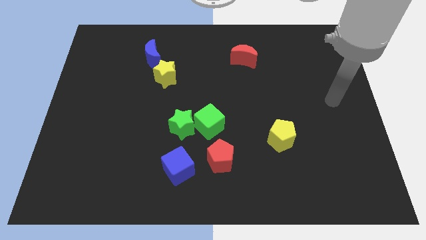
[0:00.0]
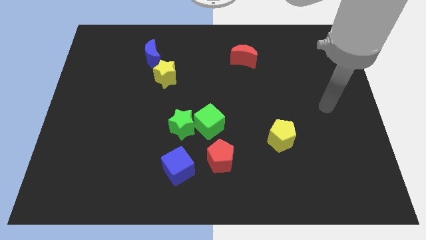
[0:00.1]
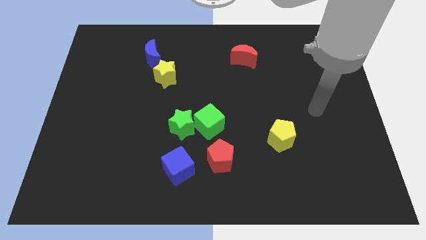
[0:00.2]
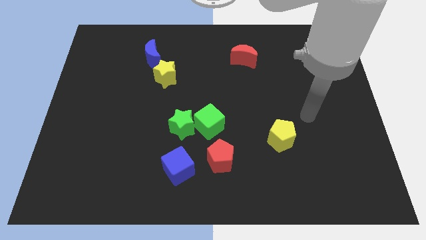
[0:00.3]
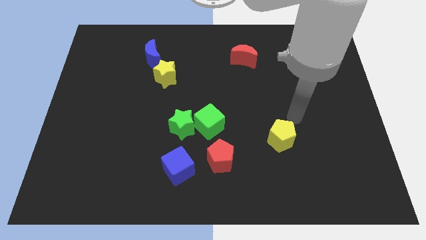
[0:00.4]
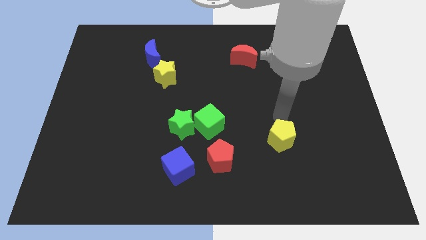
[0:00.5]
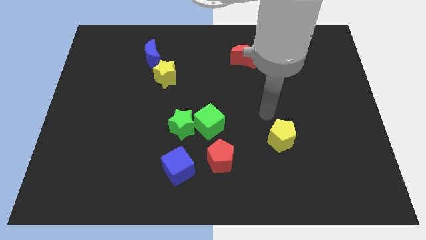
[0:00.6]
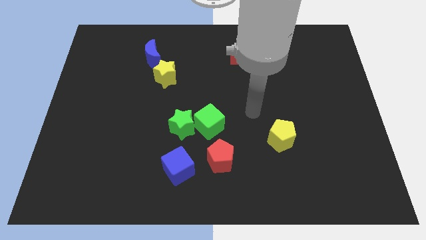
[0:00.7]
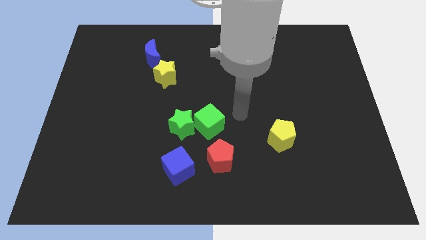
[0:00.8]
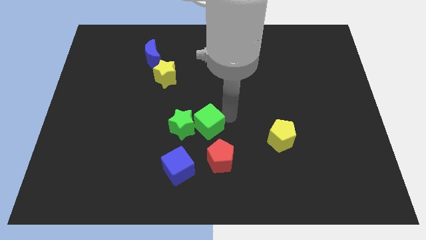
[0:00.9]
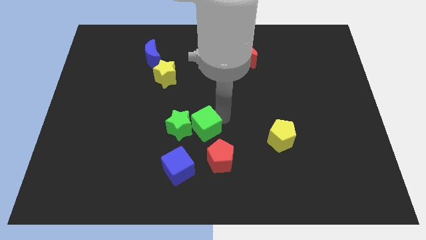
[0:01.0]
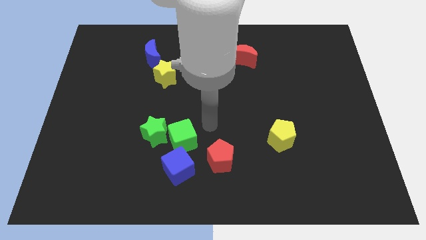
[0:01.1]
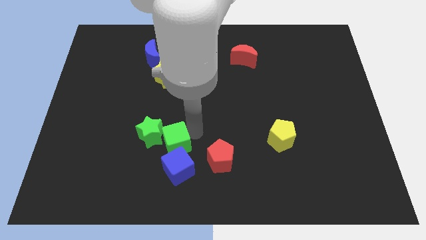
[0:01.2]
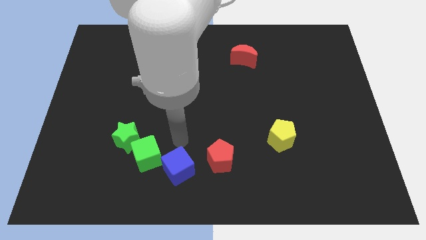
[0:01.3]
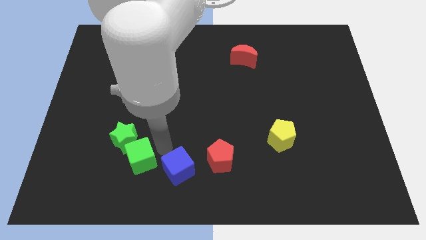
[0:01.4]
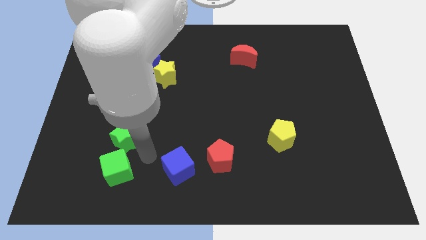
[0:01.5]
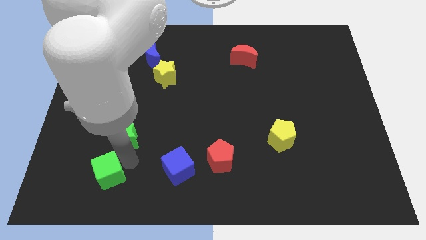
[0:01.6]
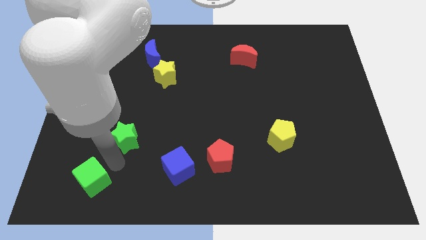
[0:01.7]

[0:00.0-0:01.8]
separate the green star from the green cube

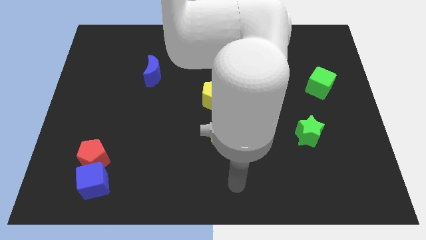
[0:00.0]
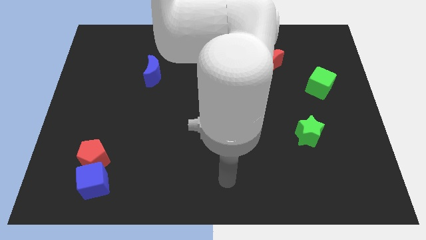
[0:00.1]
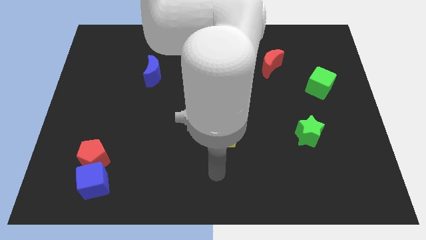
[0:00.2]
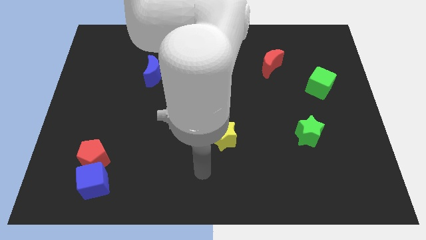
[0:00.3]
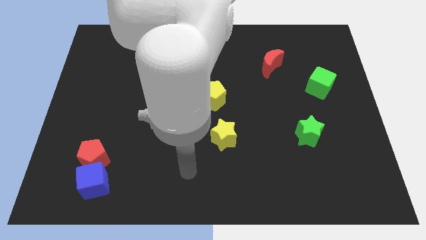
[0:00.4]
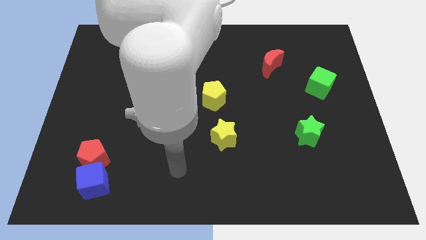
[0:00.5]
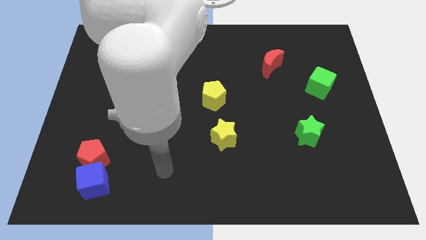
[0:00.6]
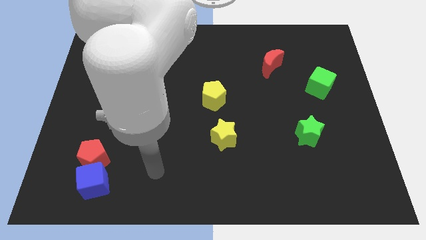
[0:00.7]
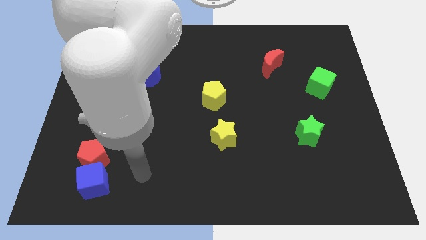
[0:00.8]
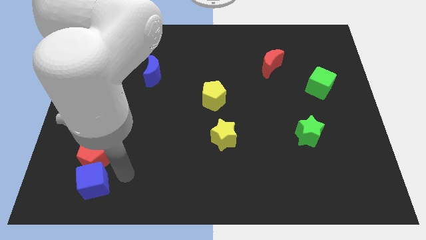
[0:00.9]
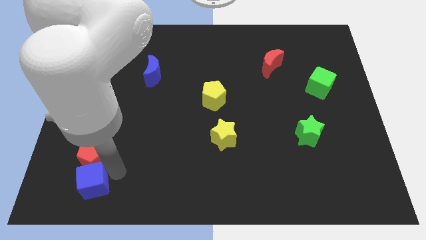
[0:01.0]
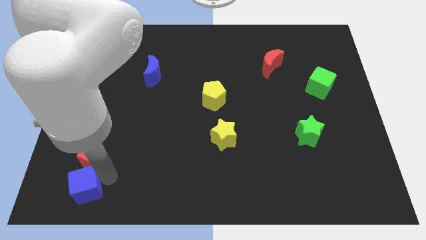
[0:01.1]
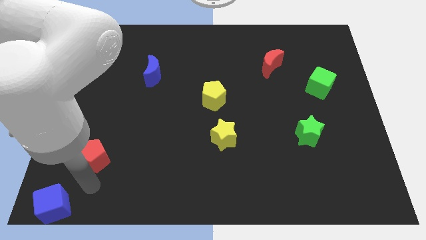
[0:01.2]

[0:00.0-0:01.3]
move the red pentagon away from the blue cube

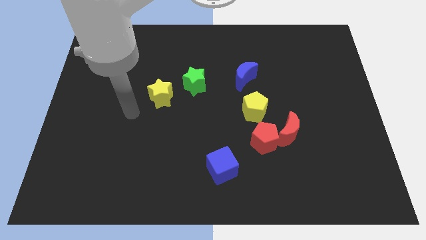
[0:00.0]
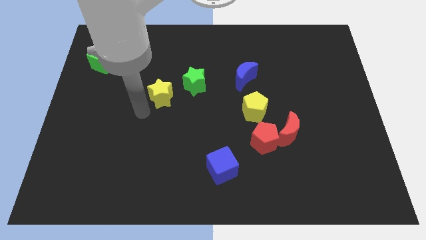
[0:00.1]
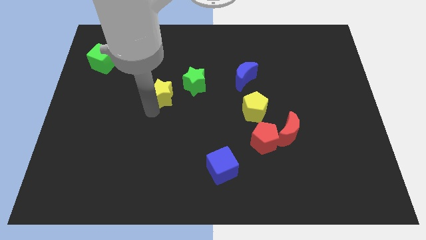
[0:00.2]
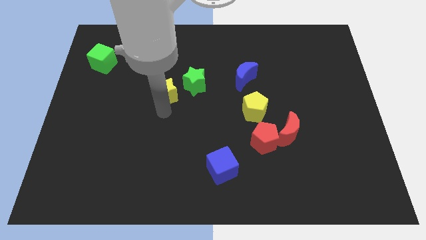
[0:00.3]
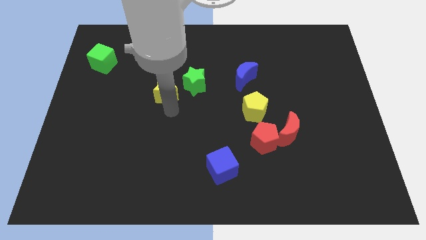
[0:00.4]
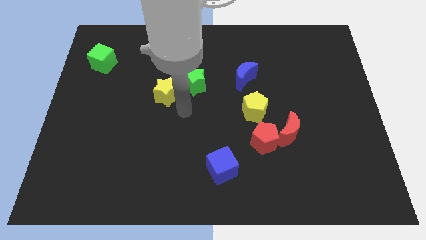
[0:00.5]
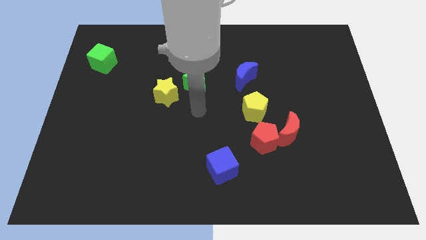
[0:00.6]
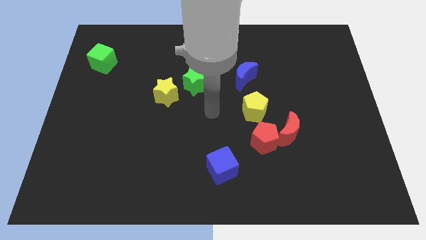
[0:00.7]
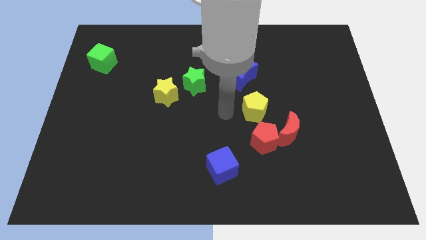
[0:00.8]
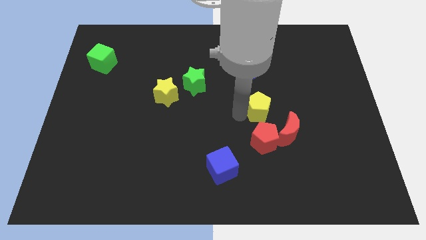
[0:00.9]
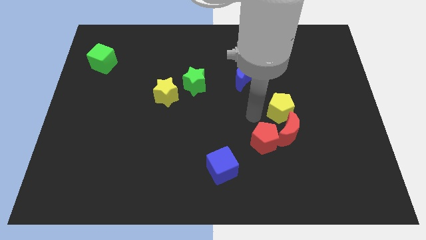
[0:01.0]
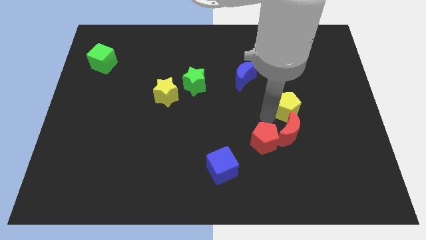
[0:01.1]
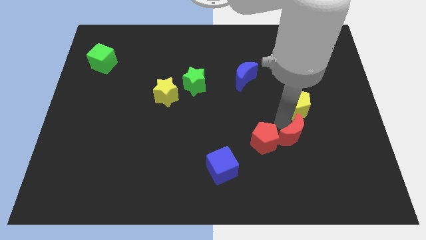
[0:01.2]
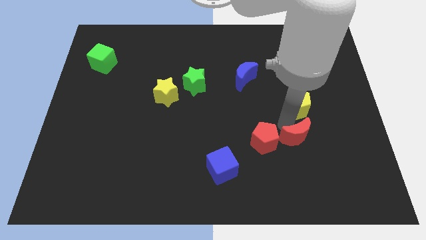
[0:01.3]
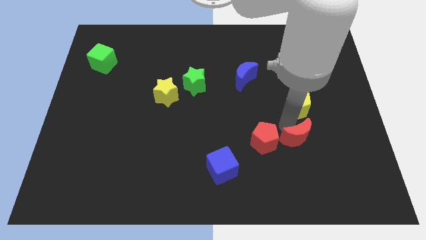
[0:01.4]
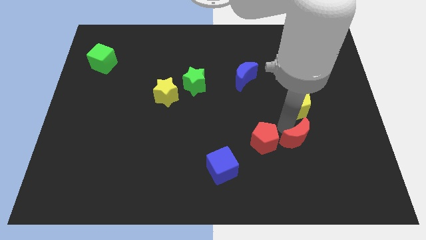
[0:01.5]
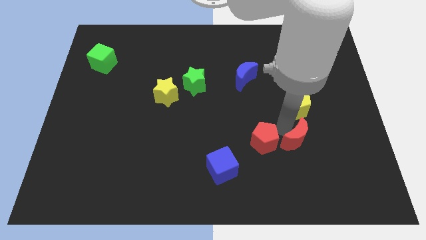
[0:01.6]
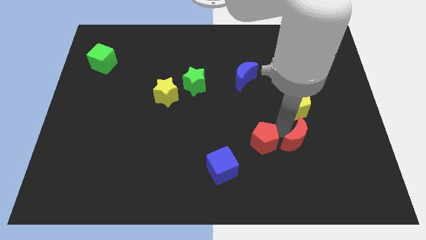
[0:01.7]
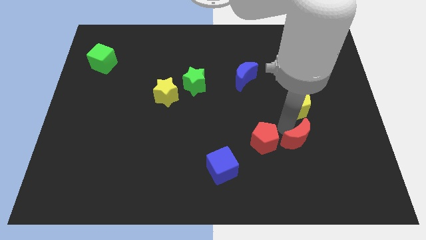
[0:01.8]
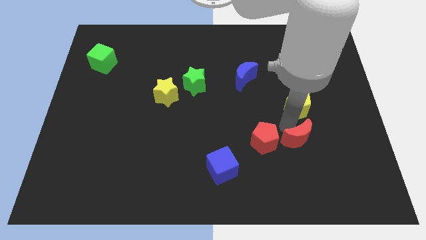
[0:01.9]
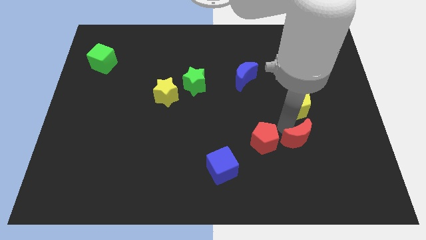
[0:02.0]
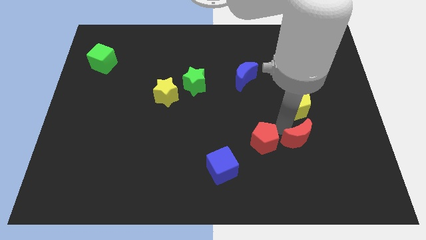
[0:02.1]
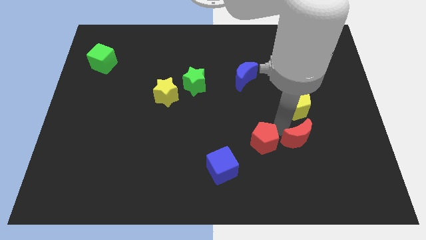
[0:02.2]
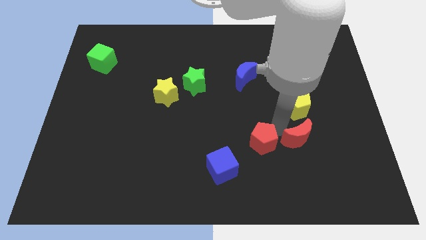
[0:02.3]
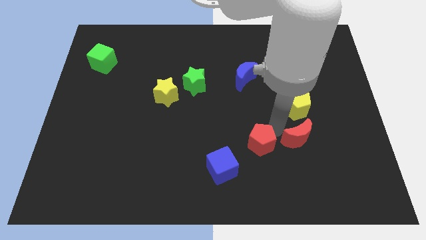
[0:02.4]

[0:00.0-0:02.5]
separate the red pentagon from the red moon and yellow pentagon

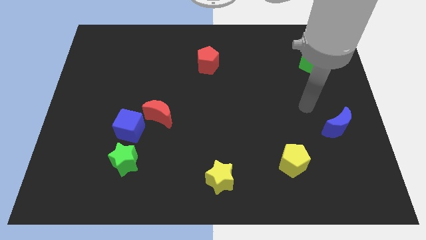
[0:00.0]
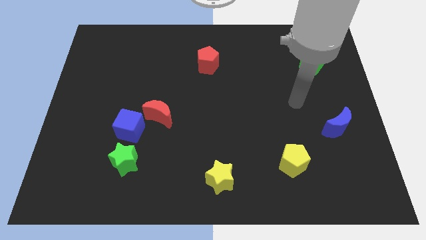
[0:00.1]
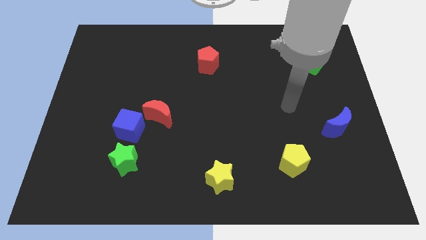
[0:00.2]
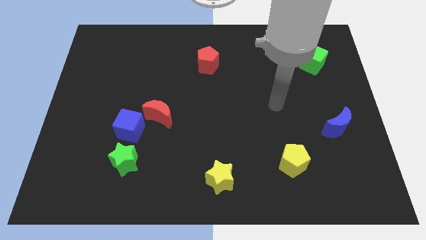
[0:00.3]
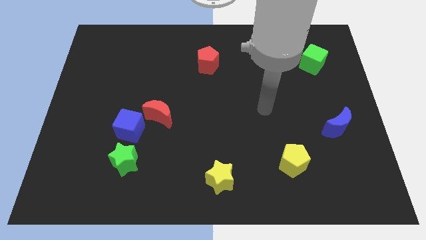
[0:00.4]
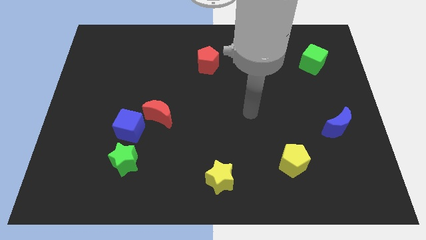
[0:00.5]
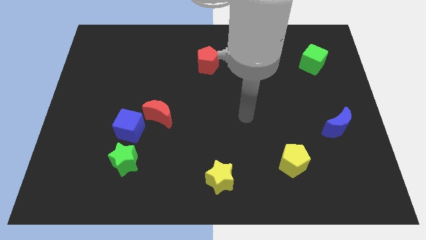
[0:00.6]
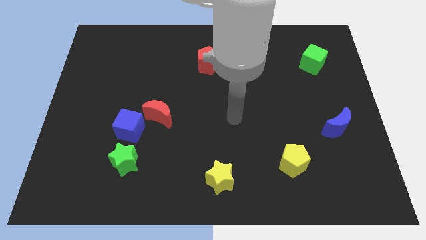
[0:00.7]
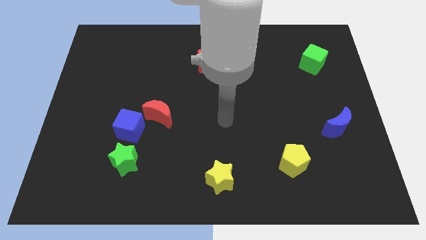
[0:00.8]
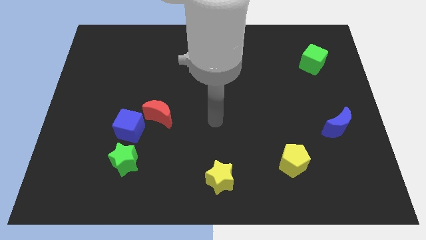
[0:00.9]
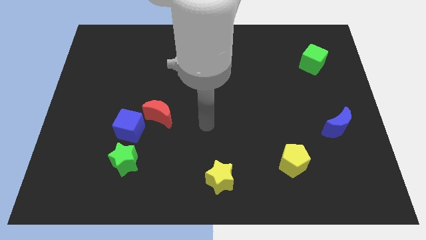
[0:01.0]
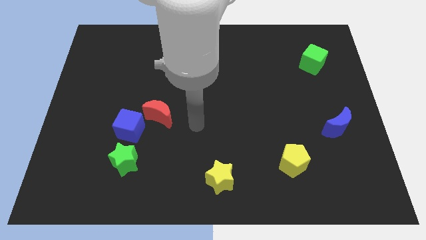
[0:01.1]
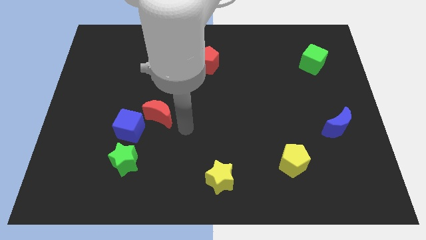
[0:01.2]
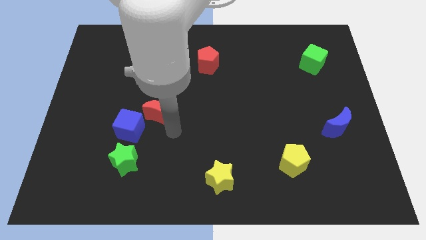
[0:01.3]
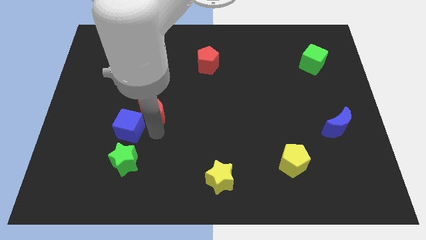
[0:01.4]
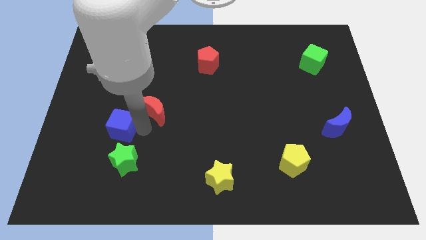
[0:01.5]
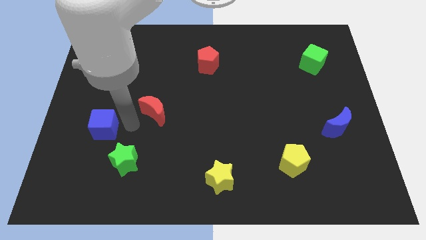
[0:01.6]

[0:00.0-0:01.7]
pull the red moon apart from the blue cube

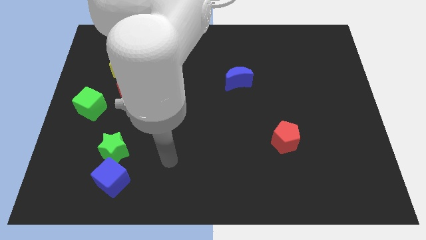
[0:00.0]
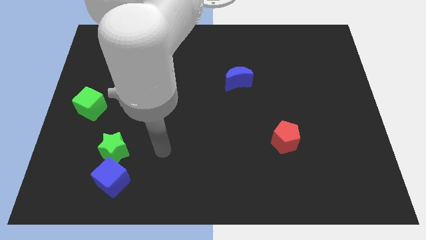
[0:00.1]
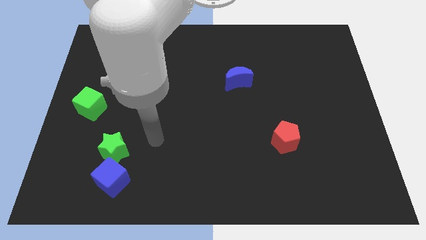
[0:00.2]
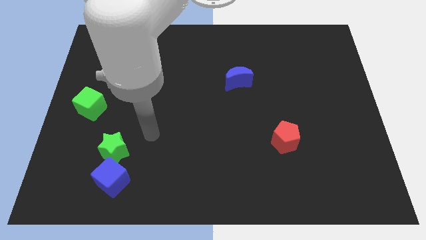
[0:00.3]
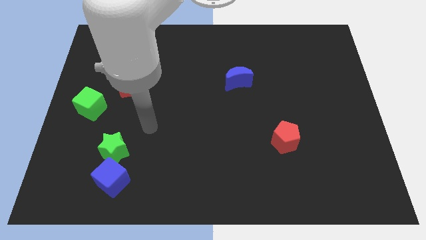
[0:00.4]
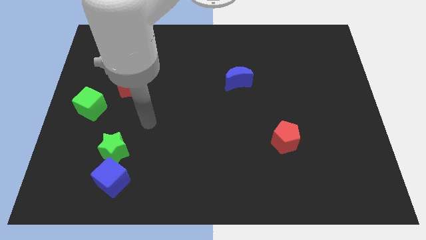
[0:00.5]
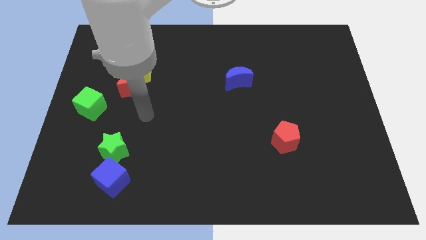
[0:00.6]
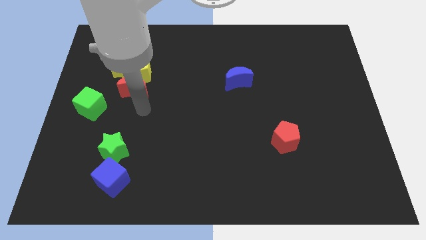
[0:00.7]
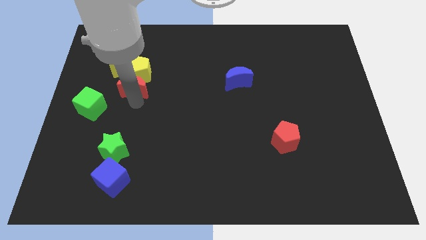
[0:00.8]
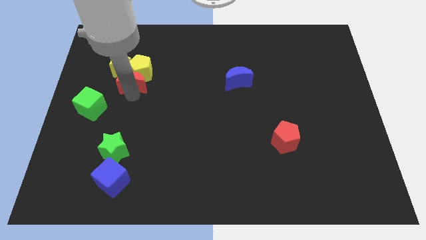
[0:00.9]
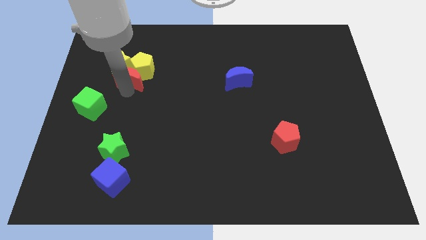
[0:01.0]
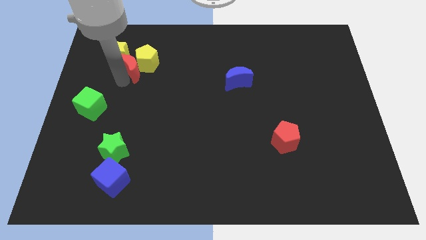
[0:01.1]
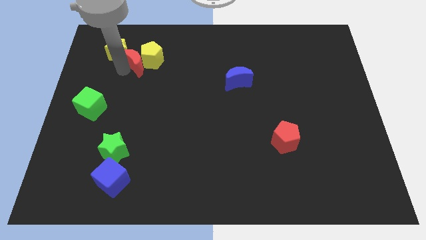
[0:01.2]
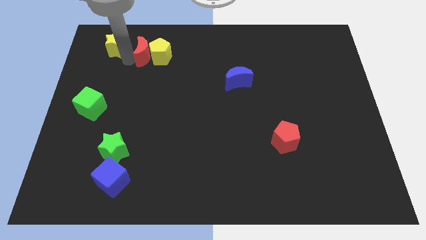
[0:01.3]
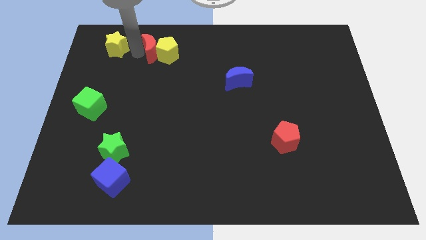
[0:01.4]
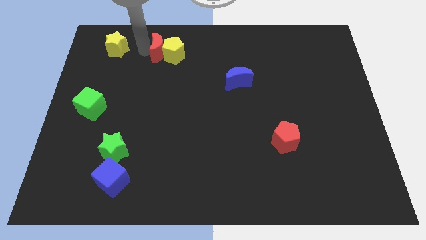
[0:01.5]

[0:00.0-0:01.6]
pull the yellow pentagon apart from the yellow star and red moon

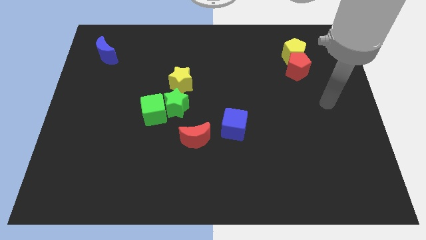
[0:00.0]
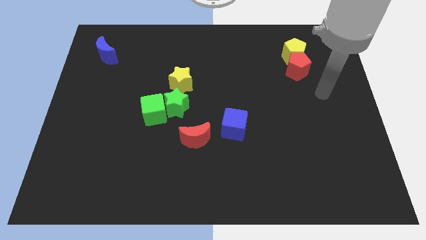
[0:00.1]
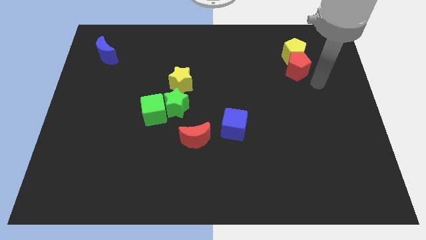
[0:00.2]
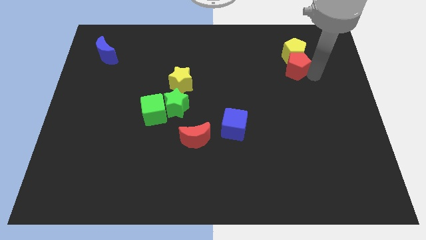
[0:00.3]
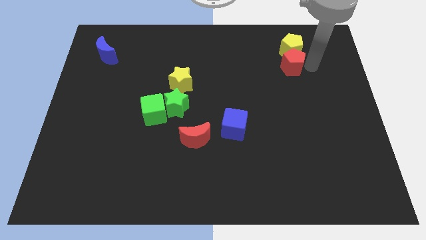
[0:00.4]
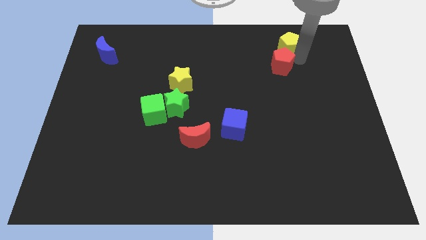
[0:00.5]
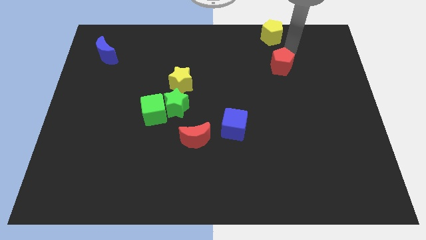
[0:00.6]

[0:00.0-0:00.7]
pull the red pentagon apart from the yellow pentagon
